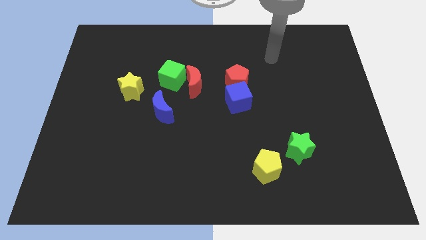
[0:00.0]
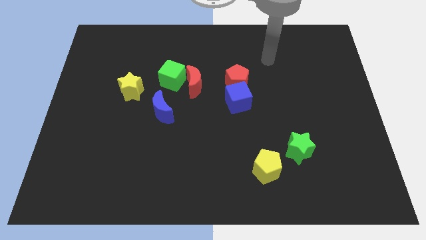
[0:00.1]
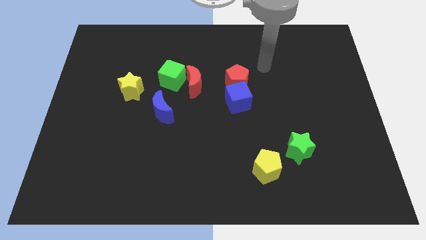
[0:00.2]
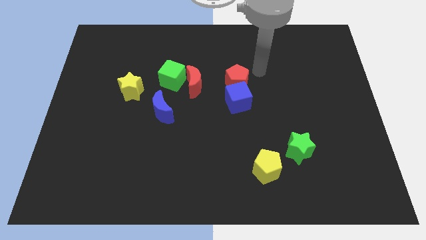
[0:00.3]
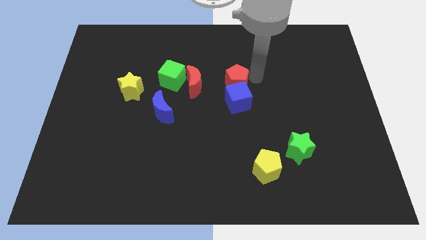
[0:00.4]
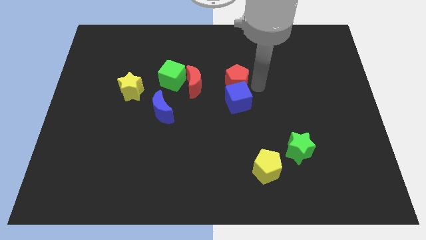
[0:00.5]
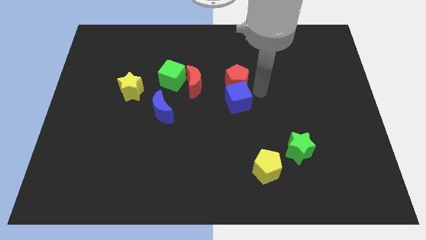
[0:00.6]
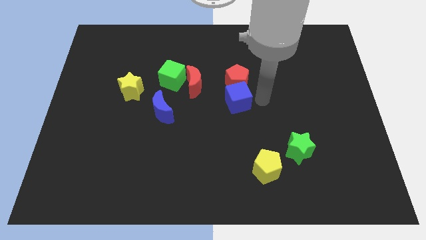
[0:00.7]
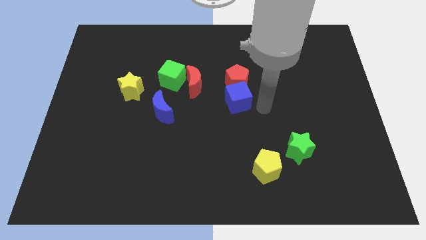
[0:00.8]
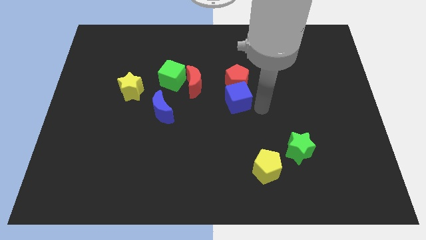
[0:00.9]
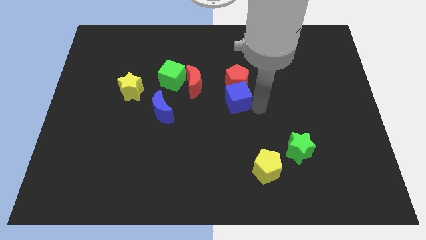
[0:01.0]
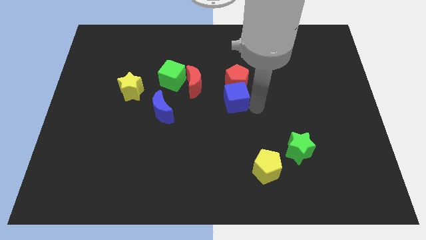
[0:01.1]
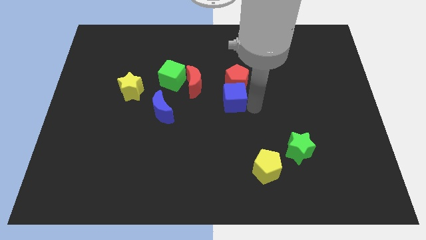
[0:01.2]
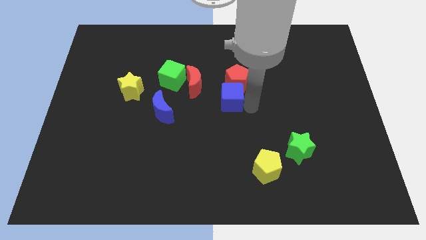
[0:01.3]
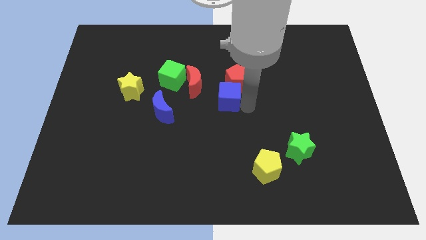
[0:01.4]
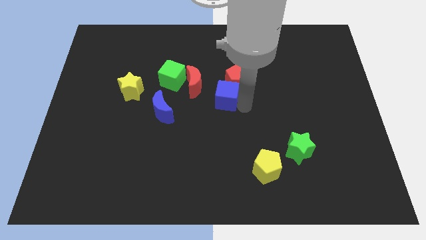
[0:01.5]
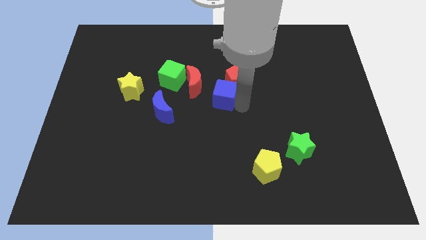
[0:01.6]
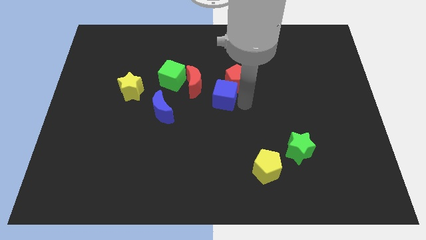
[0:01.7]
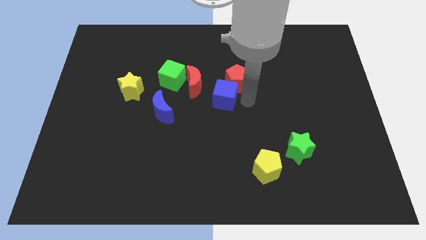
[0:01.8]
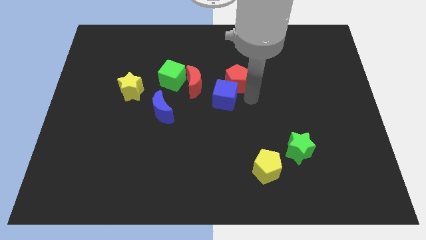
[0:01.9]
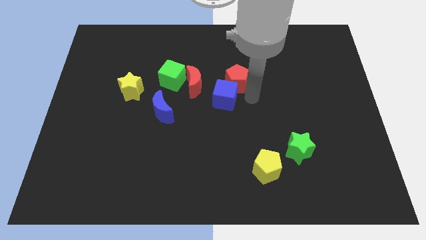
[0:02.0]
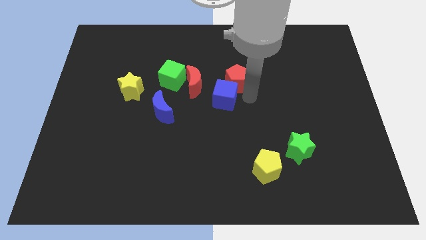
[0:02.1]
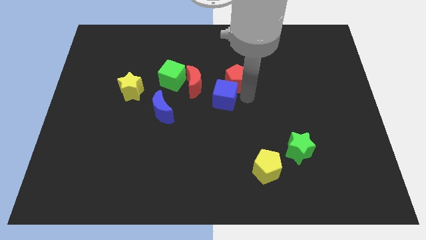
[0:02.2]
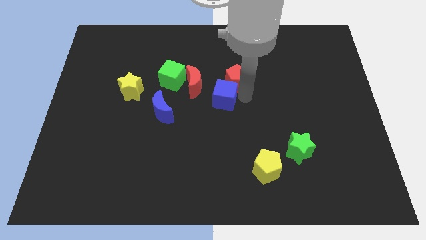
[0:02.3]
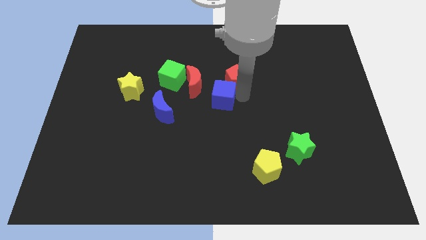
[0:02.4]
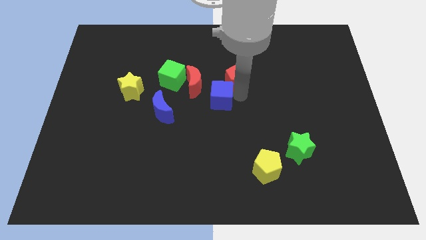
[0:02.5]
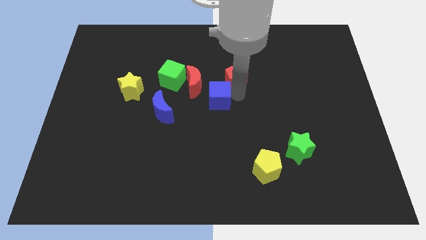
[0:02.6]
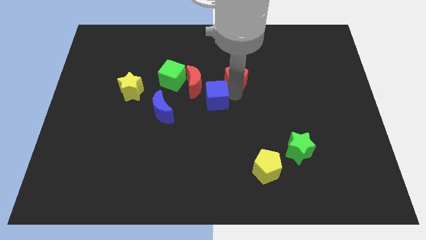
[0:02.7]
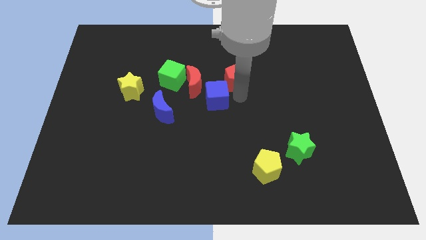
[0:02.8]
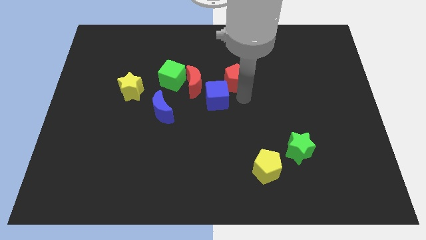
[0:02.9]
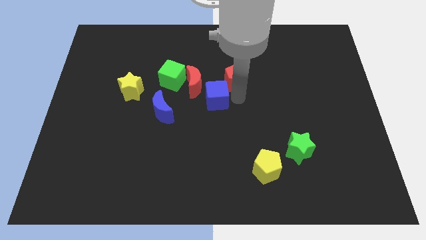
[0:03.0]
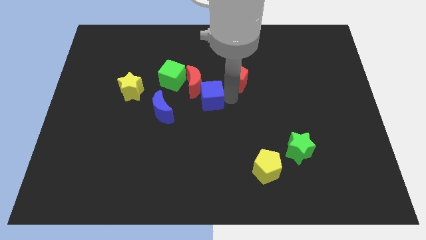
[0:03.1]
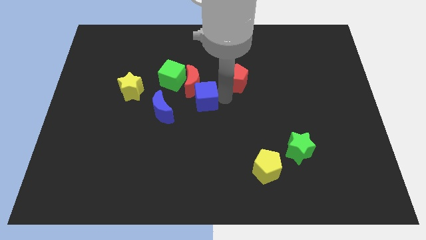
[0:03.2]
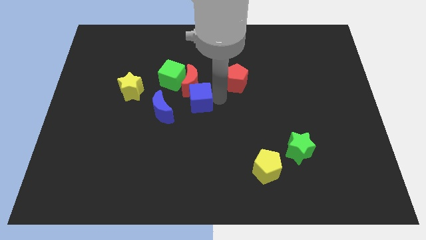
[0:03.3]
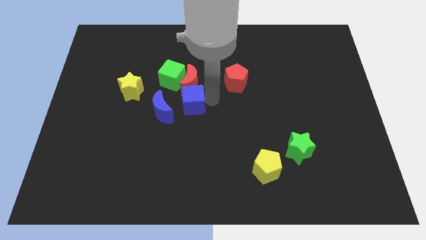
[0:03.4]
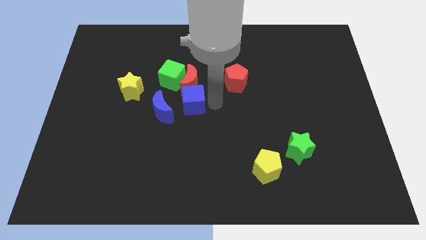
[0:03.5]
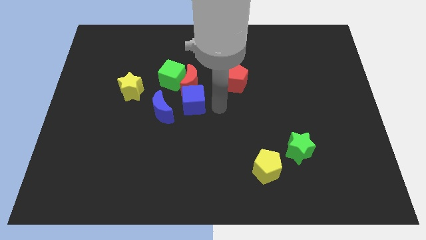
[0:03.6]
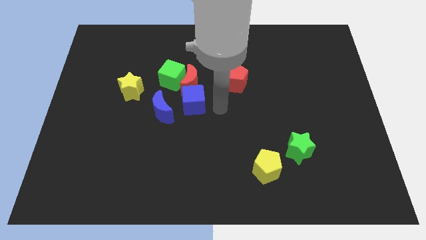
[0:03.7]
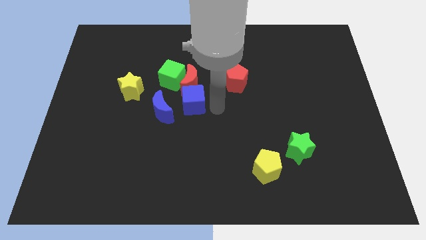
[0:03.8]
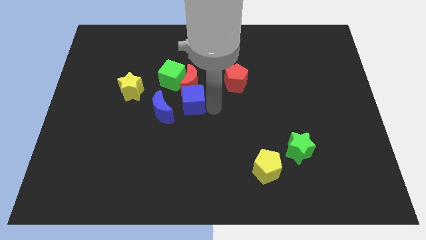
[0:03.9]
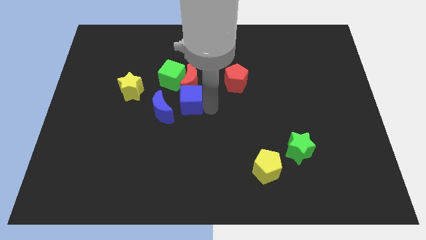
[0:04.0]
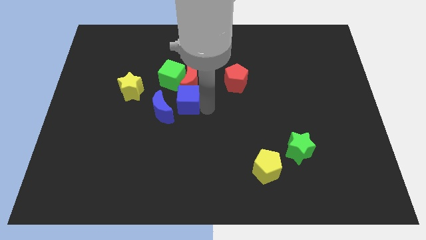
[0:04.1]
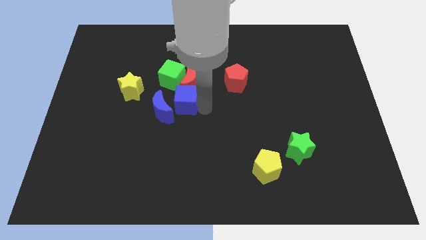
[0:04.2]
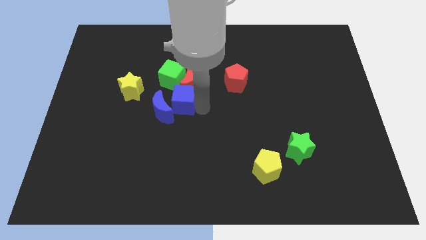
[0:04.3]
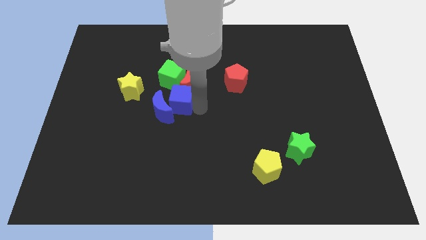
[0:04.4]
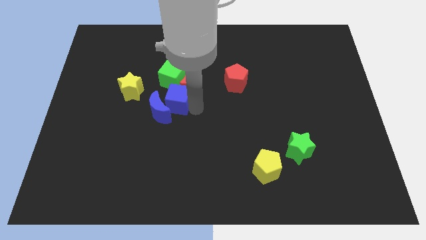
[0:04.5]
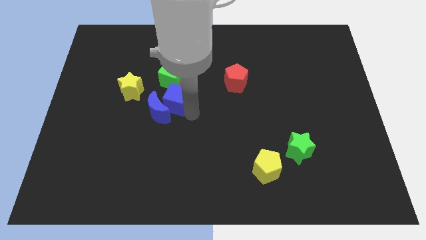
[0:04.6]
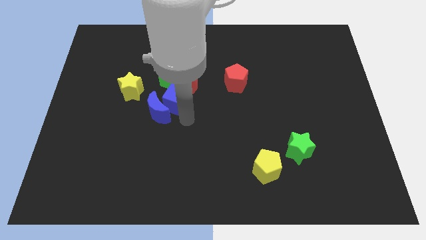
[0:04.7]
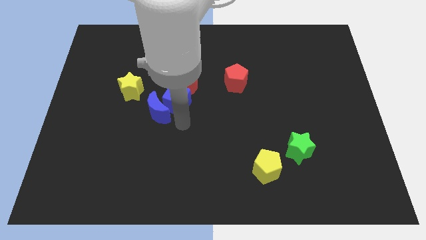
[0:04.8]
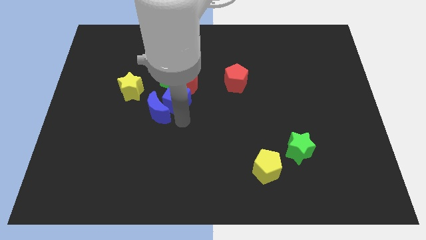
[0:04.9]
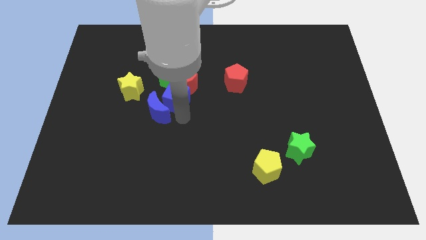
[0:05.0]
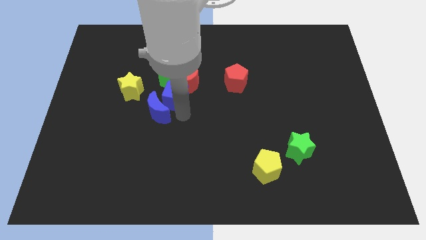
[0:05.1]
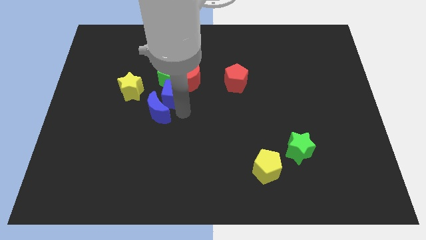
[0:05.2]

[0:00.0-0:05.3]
slide the blue cube towards the green cube

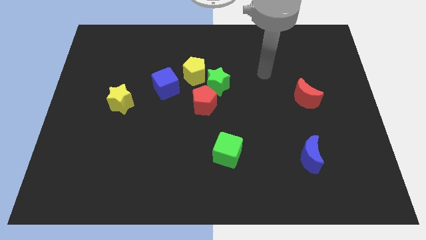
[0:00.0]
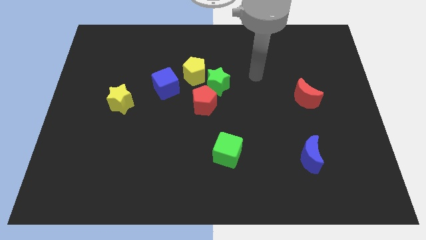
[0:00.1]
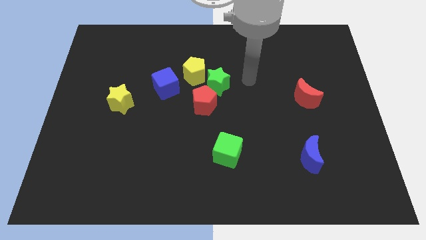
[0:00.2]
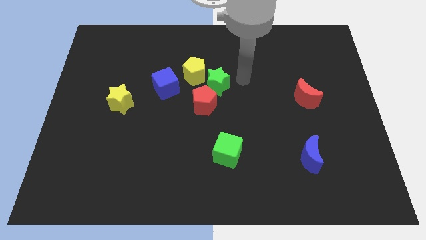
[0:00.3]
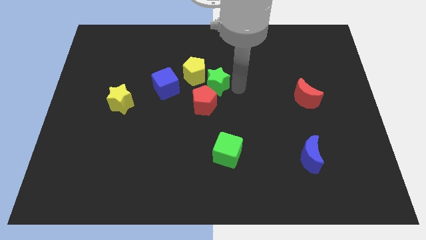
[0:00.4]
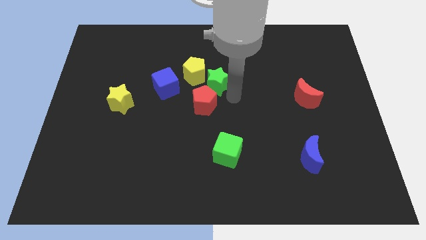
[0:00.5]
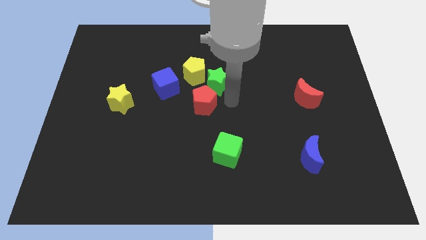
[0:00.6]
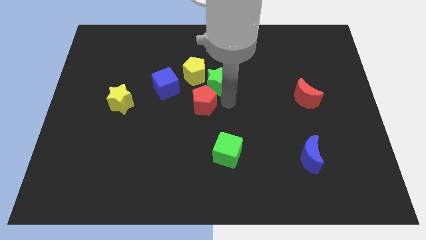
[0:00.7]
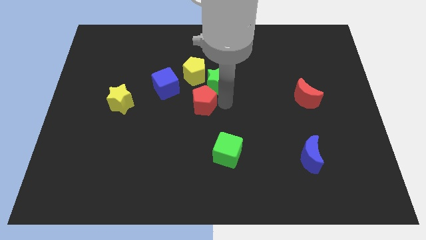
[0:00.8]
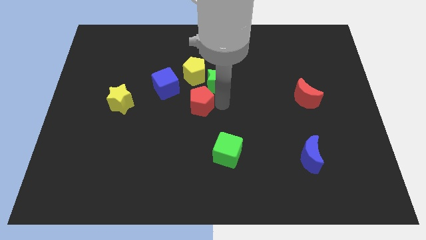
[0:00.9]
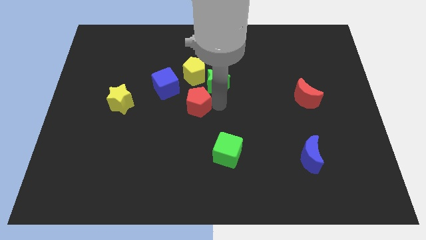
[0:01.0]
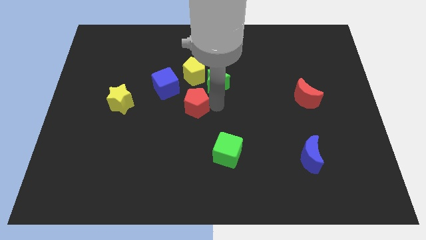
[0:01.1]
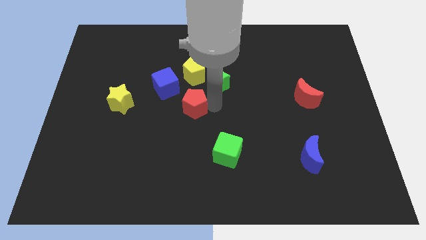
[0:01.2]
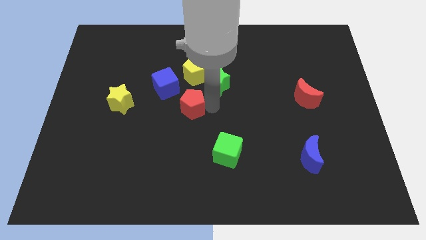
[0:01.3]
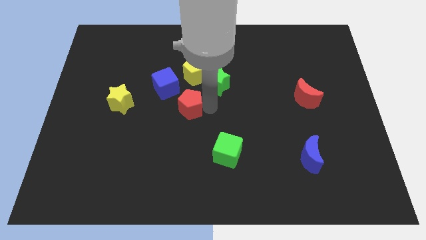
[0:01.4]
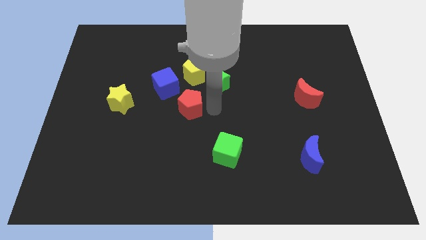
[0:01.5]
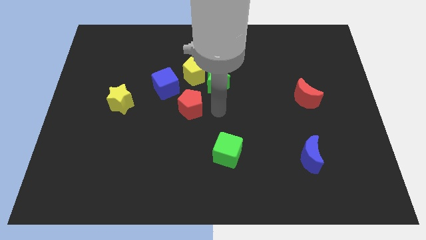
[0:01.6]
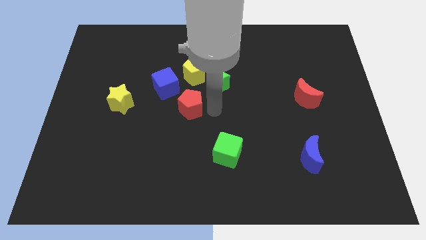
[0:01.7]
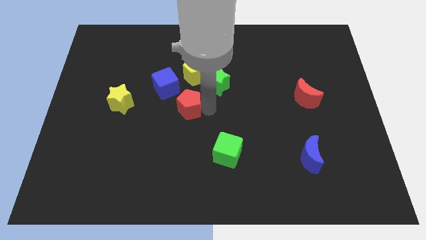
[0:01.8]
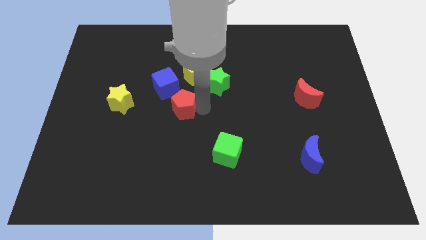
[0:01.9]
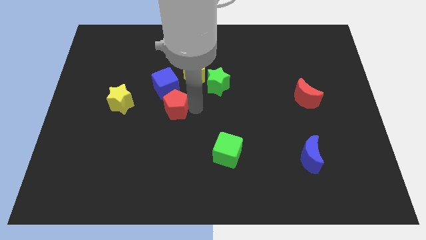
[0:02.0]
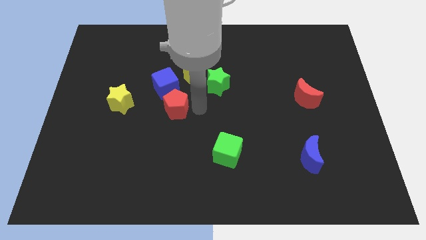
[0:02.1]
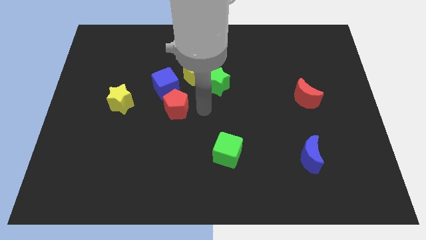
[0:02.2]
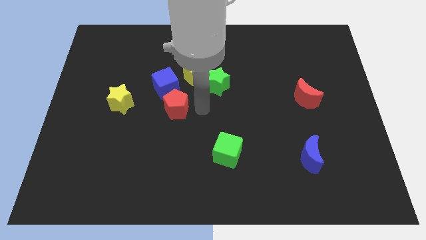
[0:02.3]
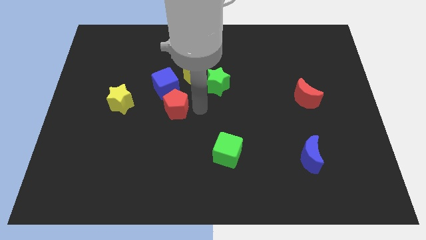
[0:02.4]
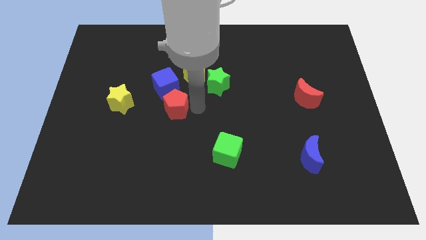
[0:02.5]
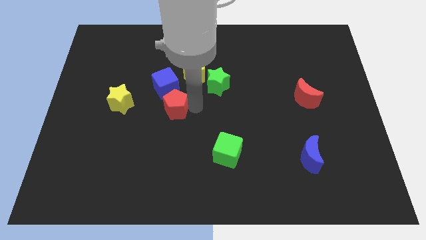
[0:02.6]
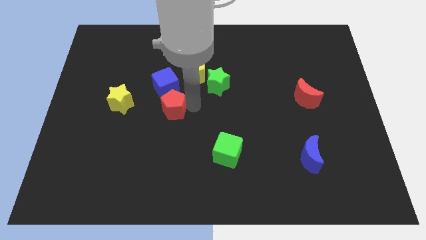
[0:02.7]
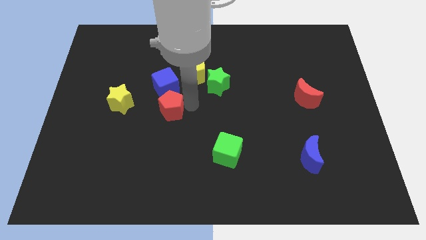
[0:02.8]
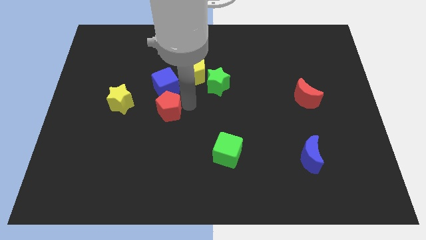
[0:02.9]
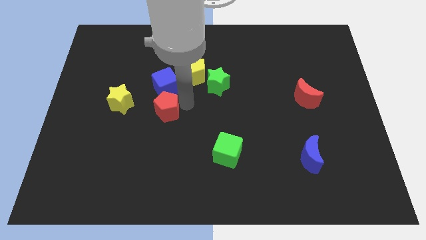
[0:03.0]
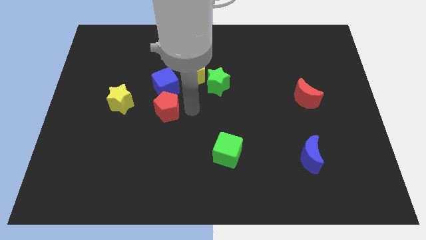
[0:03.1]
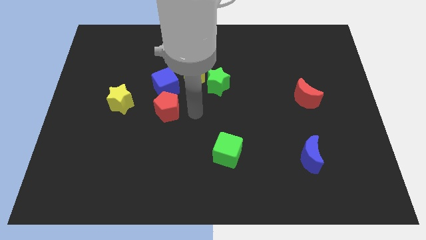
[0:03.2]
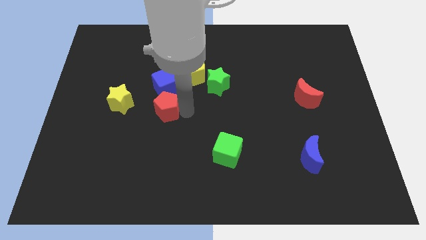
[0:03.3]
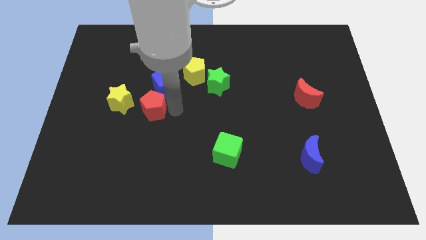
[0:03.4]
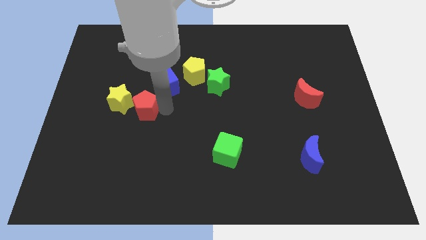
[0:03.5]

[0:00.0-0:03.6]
move the red pentagon next to the yellow star
